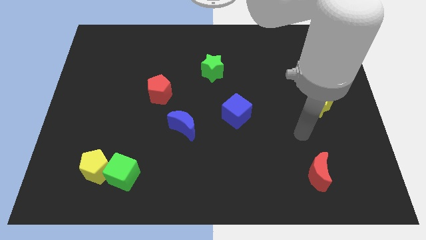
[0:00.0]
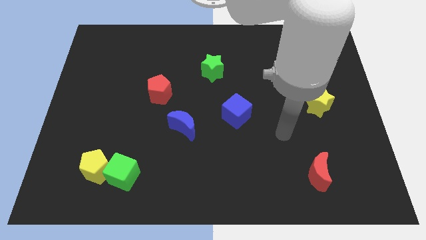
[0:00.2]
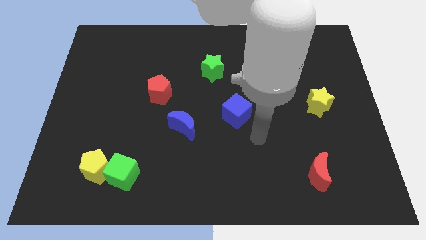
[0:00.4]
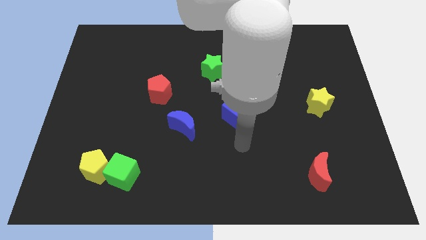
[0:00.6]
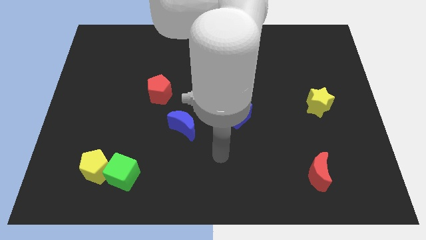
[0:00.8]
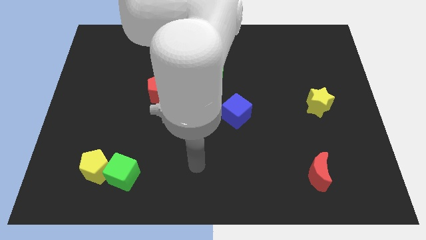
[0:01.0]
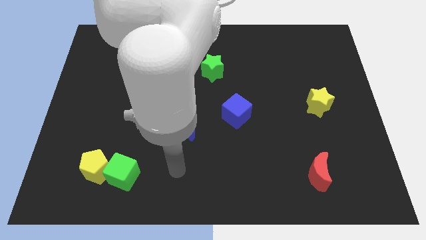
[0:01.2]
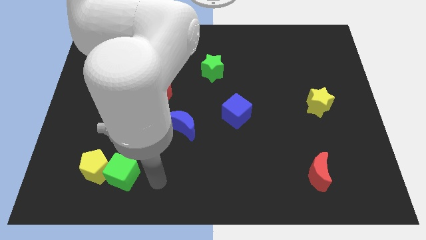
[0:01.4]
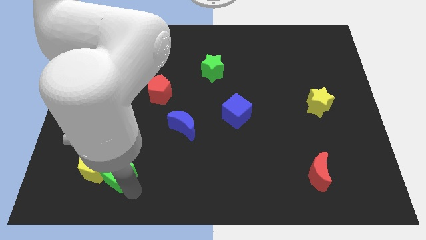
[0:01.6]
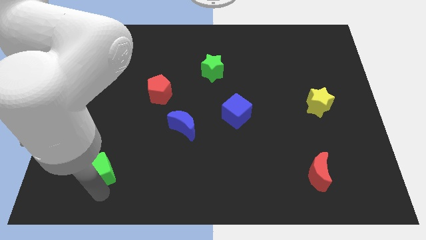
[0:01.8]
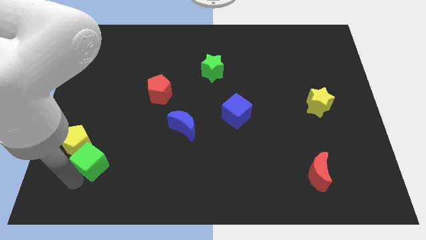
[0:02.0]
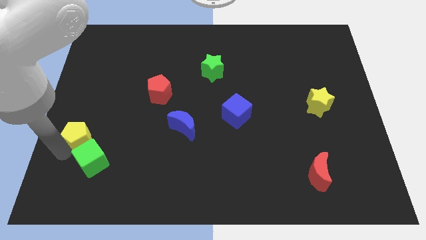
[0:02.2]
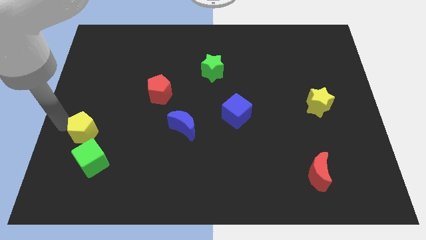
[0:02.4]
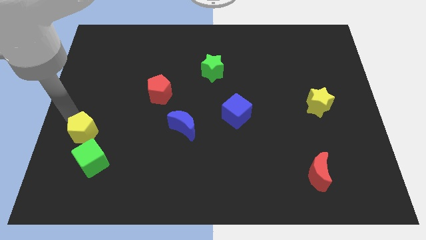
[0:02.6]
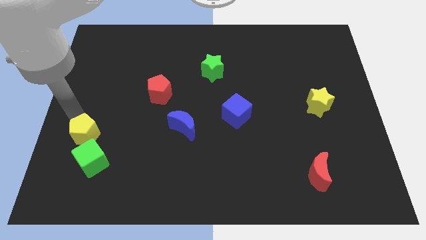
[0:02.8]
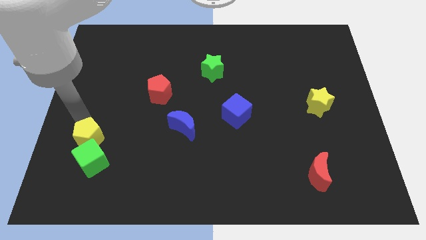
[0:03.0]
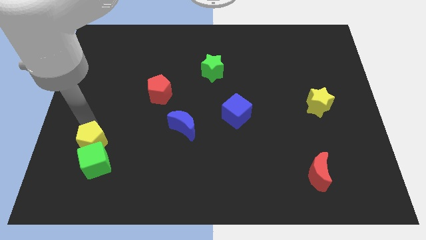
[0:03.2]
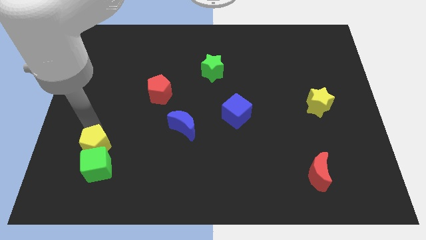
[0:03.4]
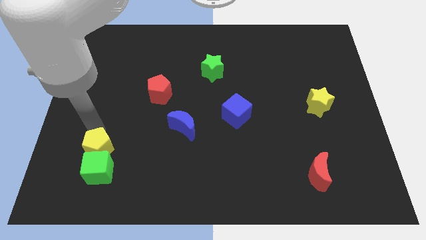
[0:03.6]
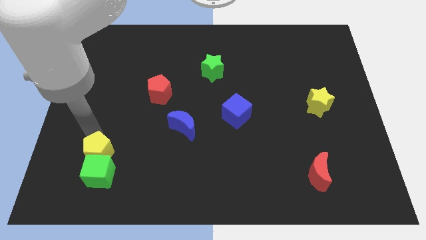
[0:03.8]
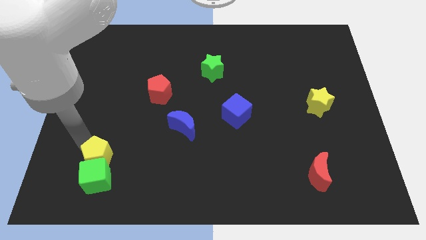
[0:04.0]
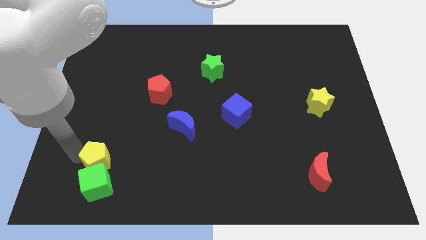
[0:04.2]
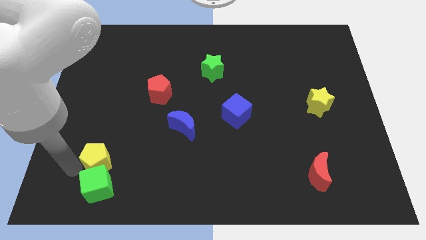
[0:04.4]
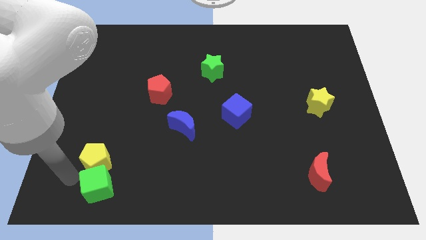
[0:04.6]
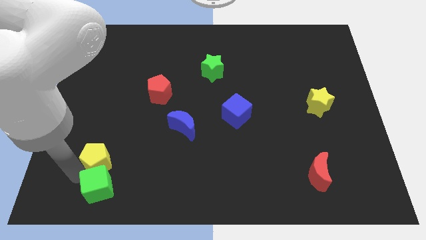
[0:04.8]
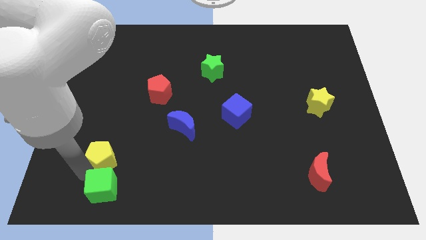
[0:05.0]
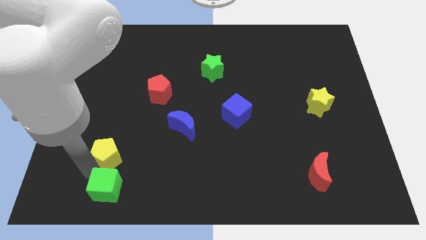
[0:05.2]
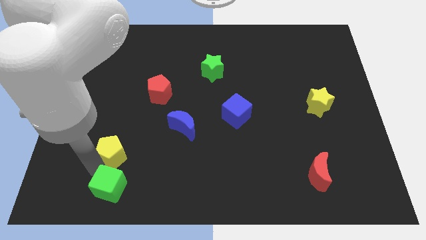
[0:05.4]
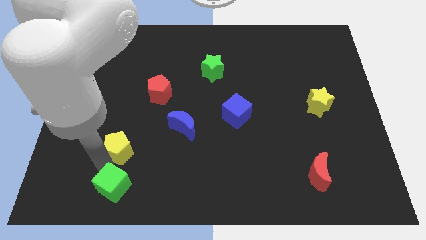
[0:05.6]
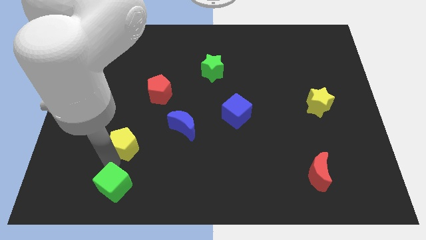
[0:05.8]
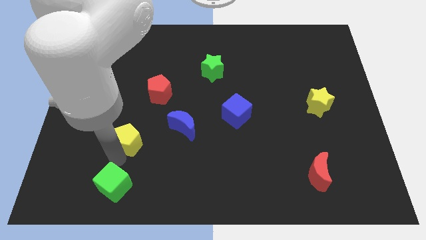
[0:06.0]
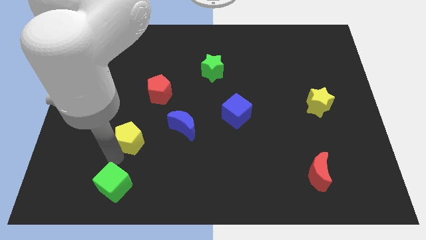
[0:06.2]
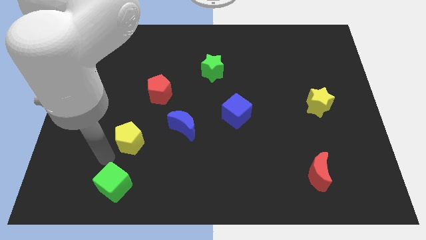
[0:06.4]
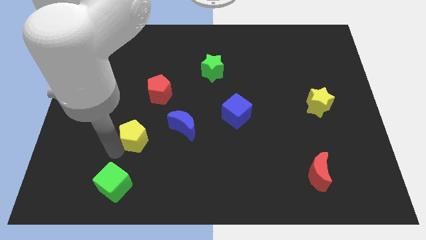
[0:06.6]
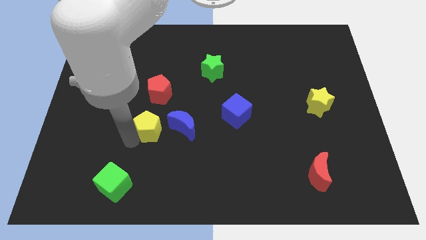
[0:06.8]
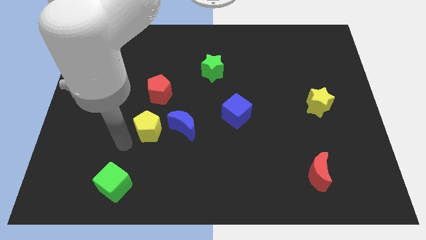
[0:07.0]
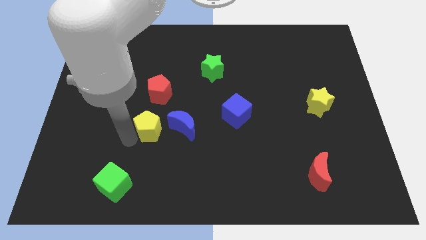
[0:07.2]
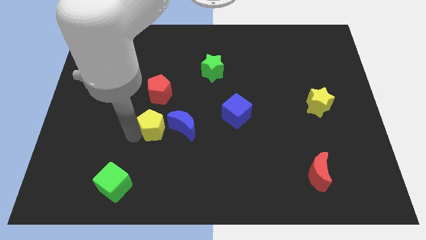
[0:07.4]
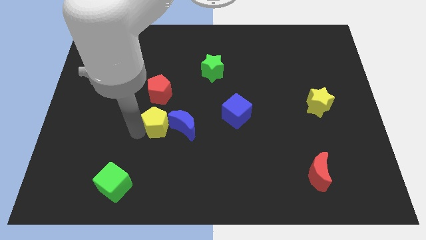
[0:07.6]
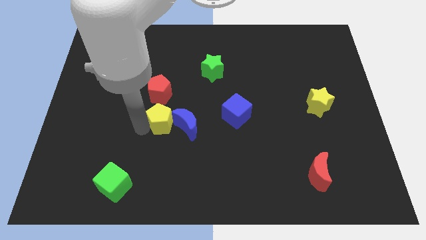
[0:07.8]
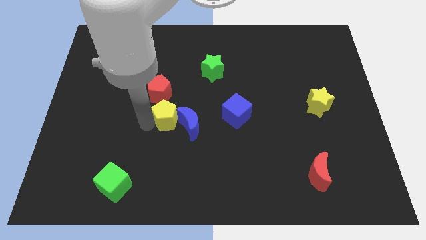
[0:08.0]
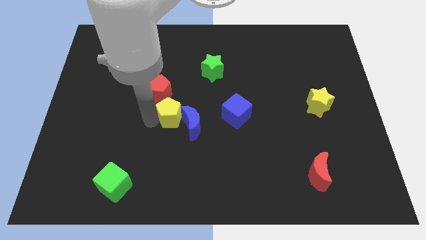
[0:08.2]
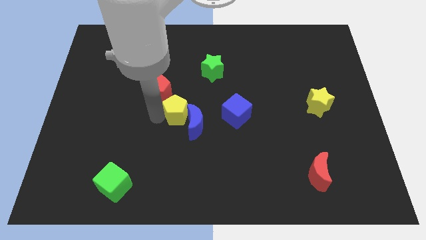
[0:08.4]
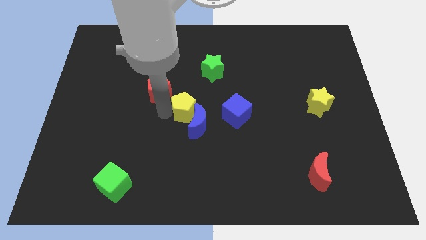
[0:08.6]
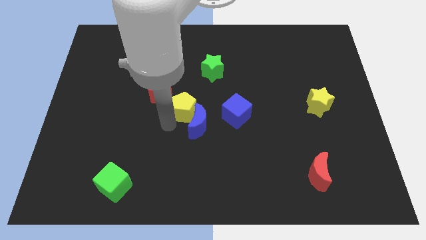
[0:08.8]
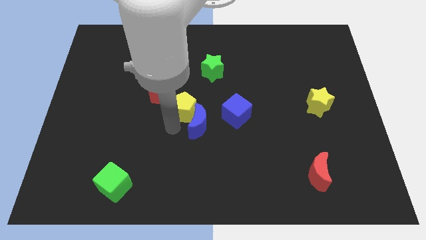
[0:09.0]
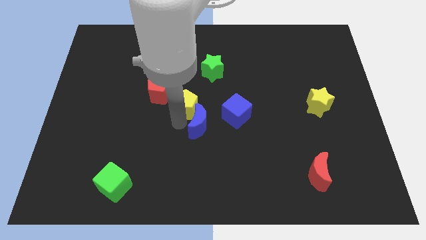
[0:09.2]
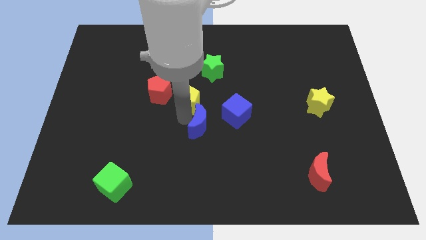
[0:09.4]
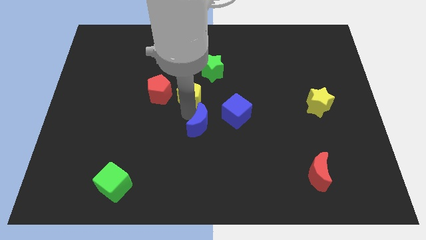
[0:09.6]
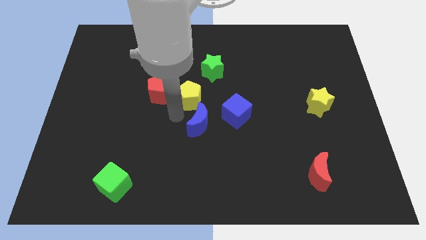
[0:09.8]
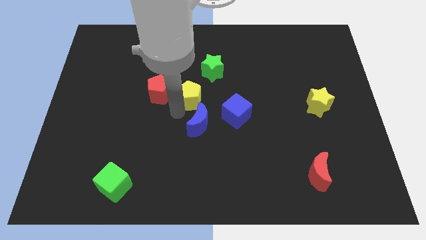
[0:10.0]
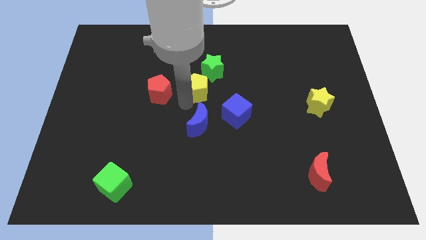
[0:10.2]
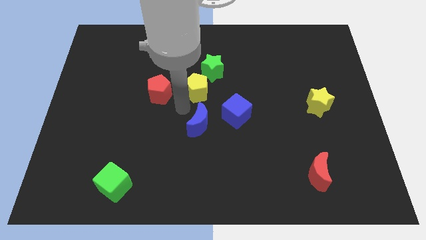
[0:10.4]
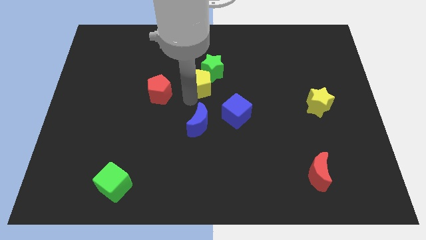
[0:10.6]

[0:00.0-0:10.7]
put the yellow pentagon to the green star
